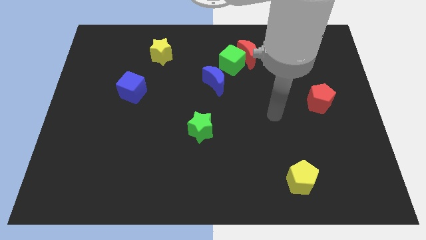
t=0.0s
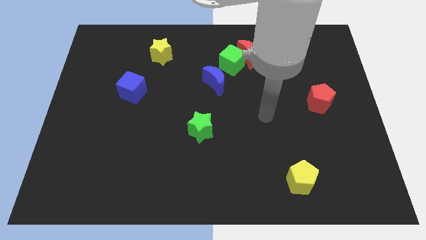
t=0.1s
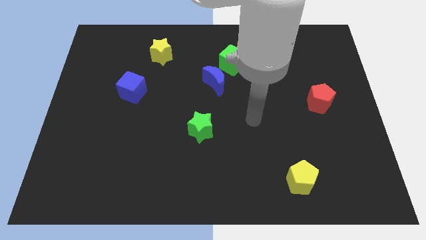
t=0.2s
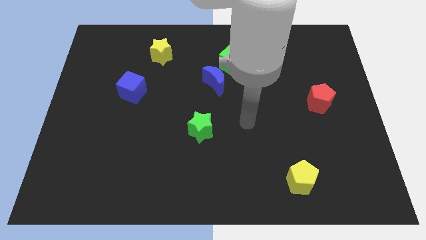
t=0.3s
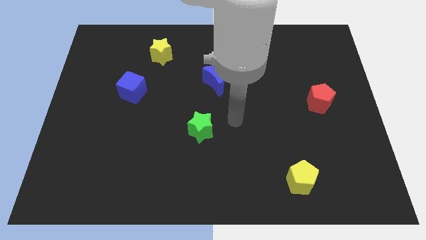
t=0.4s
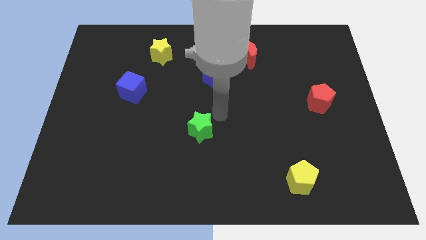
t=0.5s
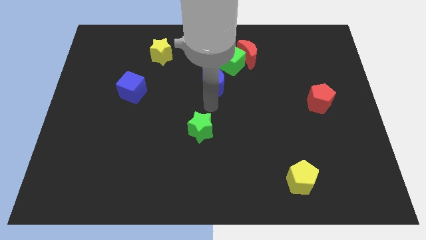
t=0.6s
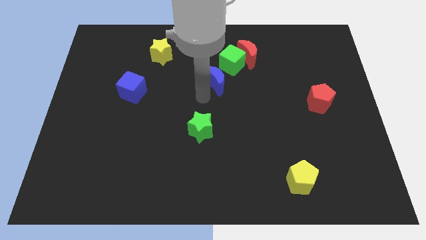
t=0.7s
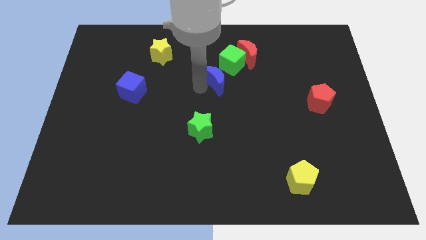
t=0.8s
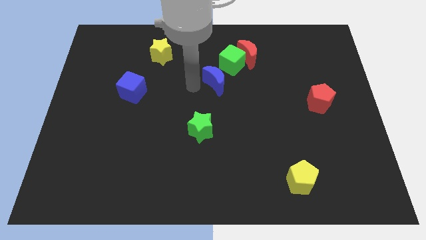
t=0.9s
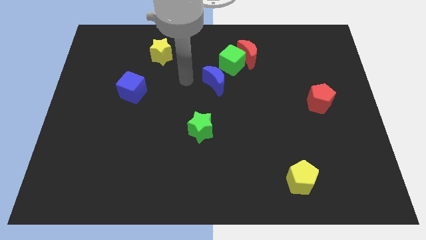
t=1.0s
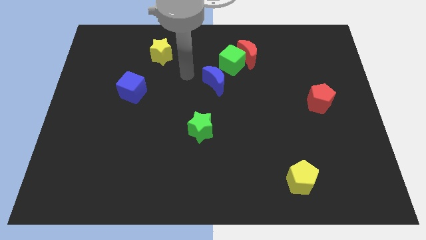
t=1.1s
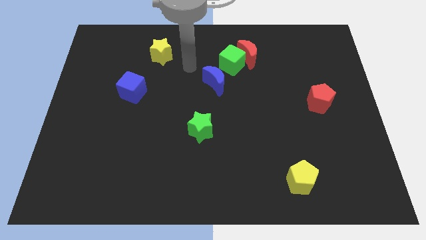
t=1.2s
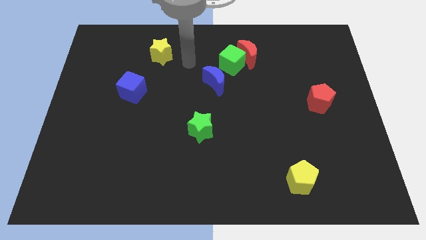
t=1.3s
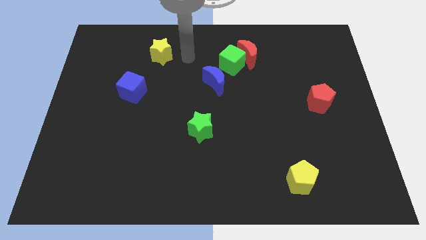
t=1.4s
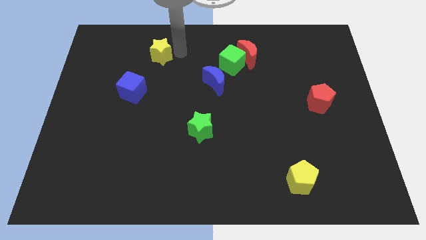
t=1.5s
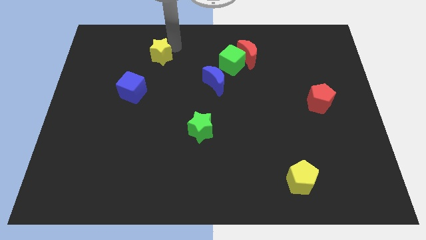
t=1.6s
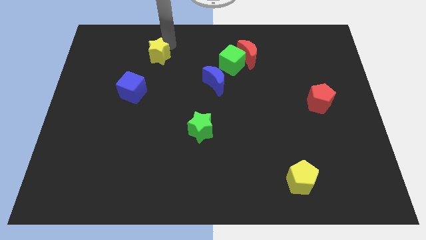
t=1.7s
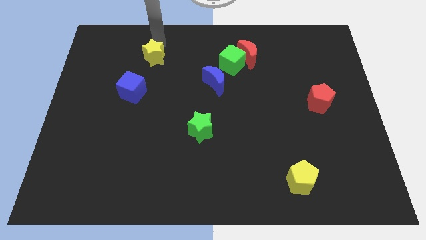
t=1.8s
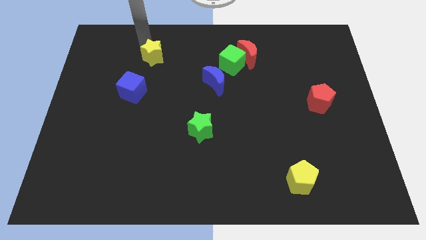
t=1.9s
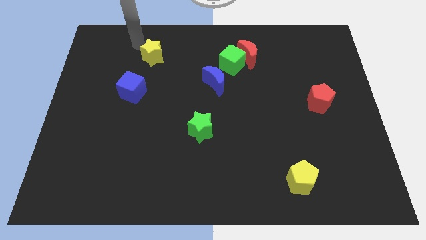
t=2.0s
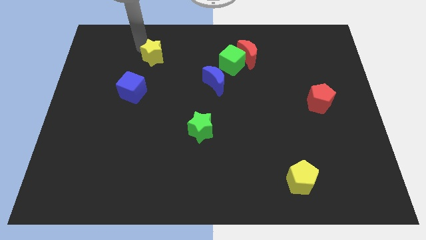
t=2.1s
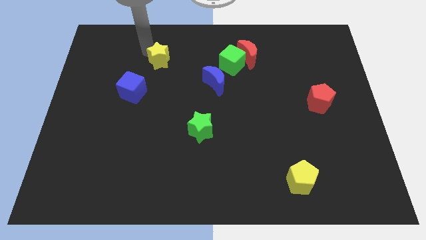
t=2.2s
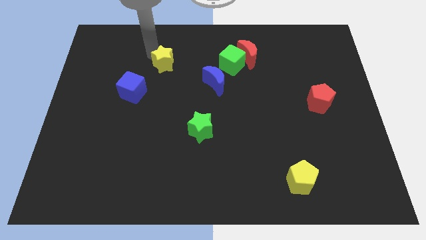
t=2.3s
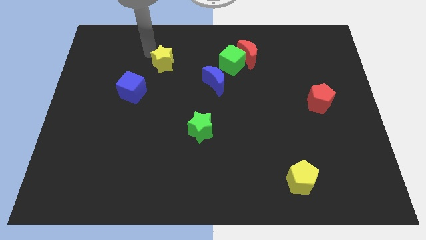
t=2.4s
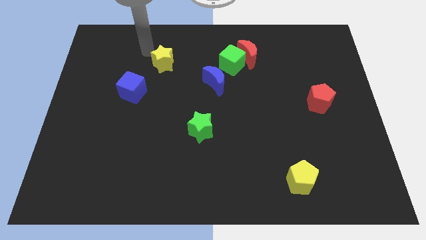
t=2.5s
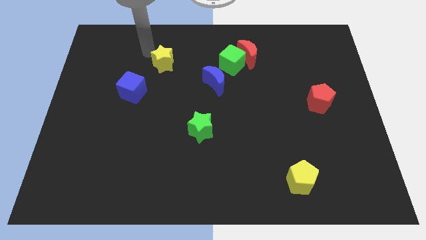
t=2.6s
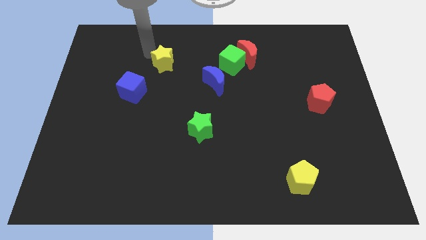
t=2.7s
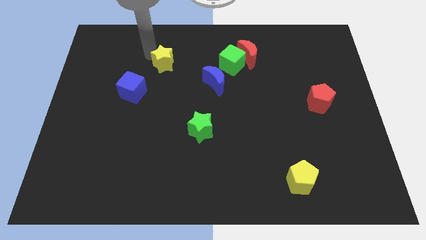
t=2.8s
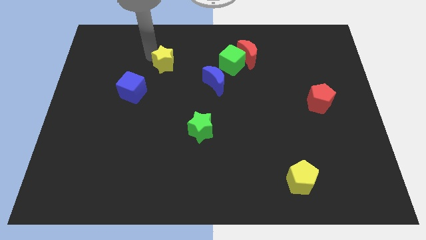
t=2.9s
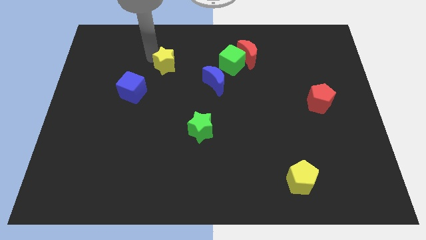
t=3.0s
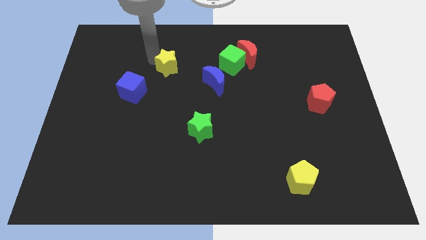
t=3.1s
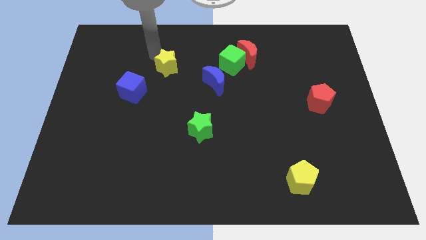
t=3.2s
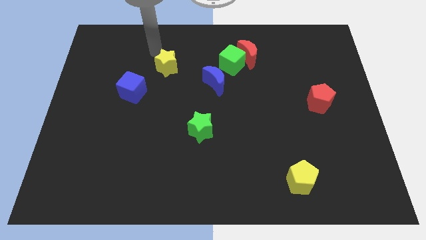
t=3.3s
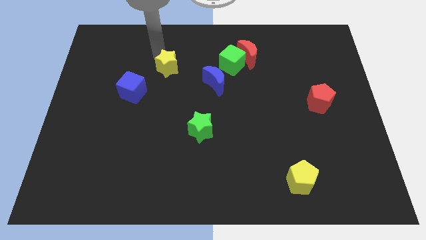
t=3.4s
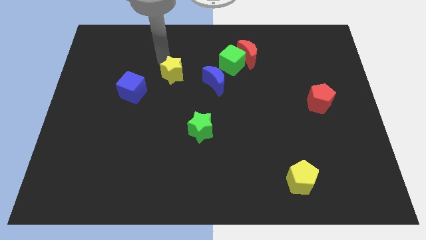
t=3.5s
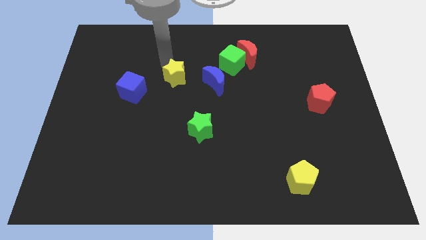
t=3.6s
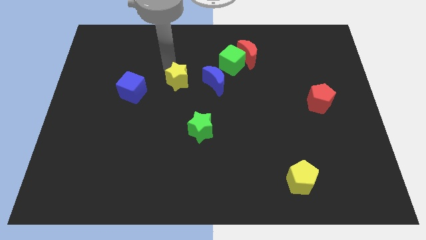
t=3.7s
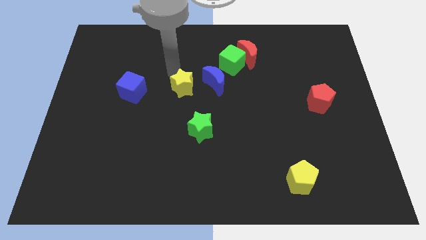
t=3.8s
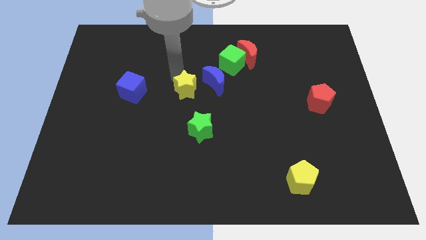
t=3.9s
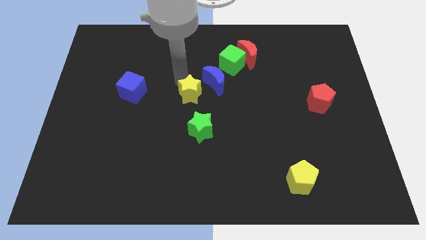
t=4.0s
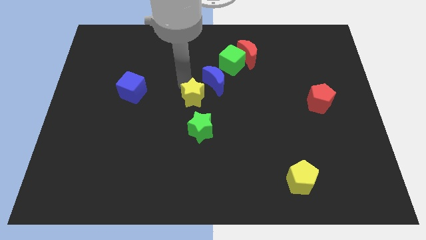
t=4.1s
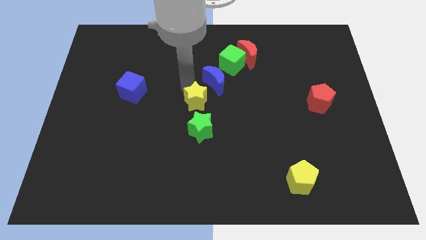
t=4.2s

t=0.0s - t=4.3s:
push the yellow star to the bottom side of the blue moon

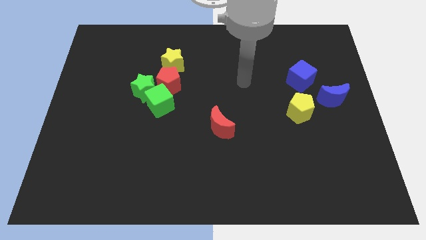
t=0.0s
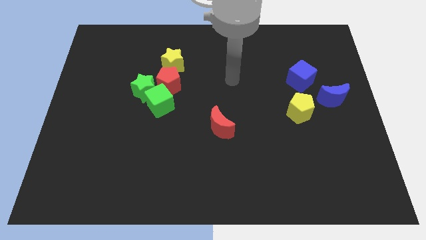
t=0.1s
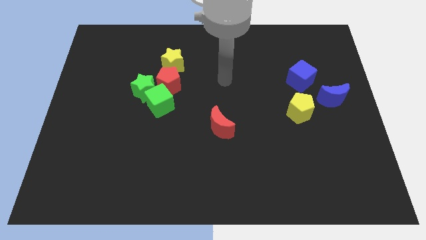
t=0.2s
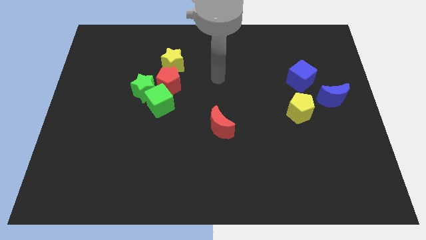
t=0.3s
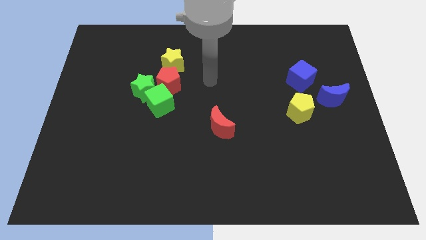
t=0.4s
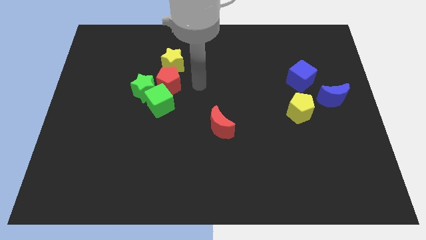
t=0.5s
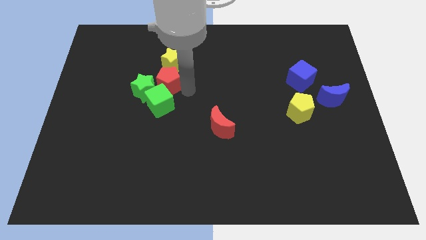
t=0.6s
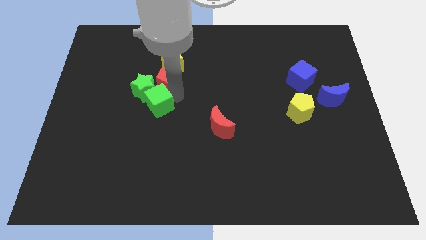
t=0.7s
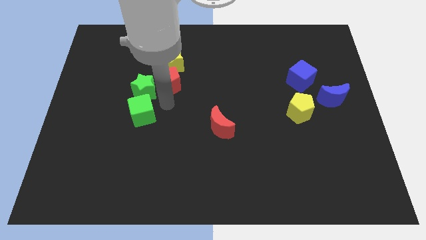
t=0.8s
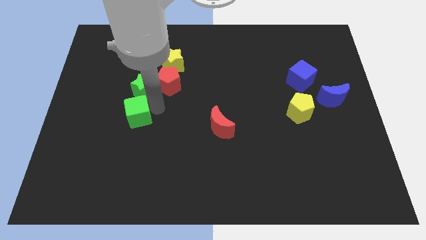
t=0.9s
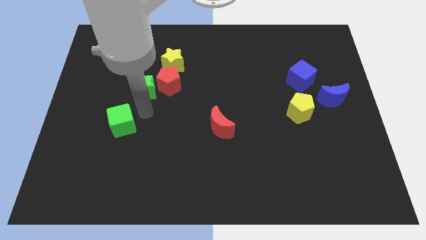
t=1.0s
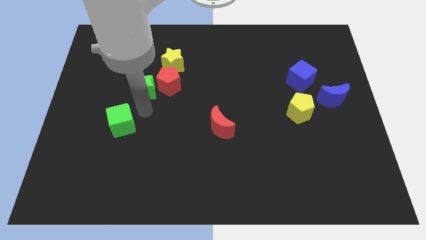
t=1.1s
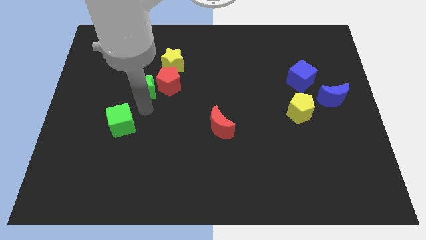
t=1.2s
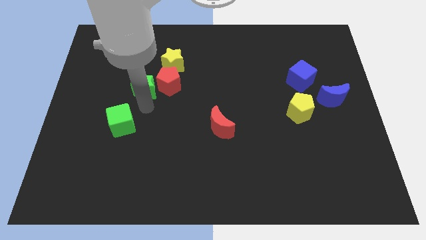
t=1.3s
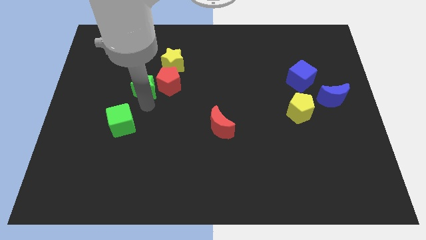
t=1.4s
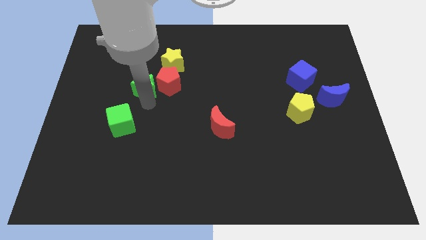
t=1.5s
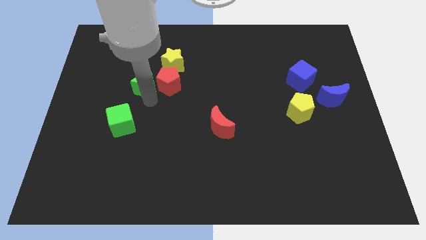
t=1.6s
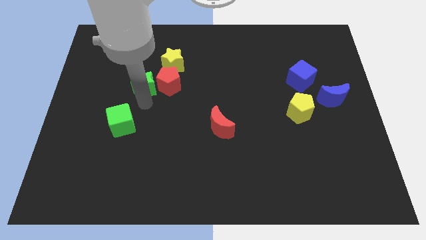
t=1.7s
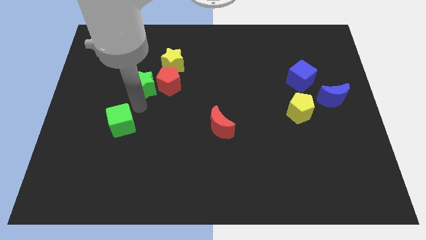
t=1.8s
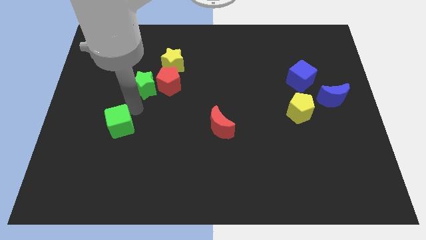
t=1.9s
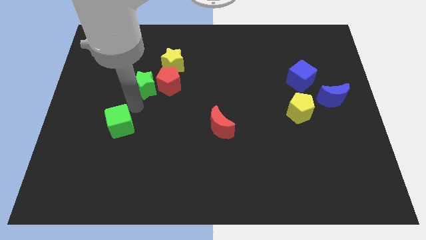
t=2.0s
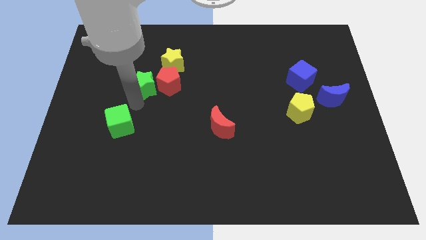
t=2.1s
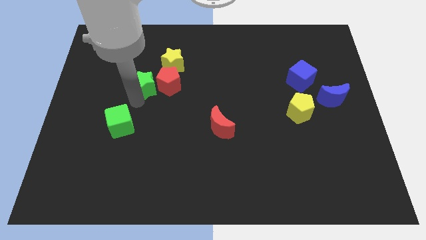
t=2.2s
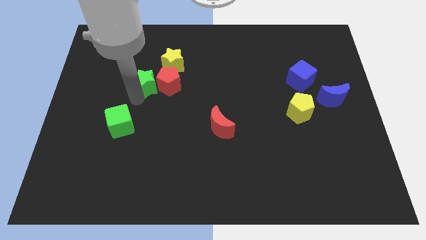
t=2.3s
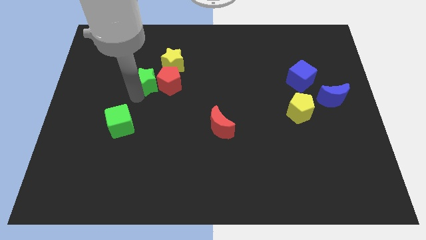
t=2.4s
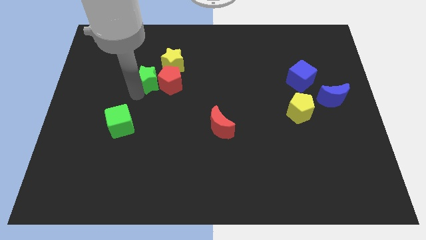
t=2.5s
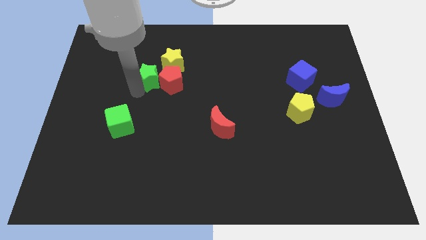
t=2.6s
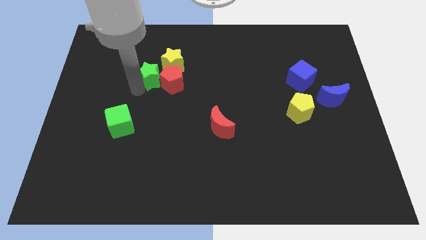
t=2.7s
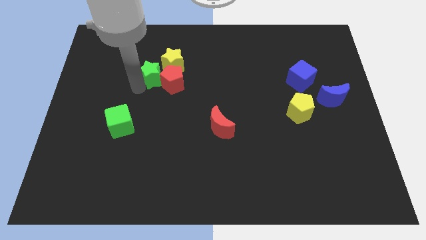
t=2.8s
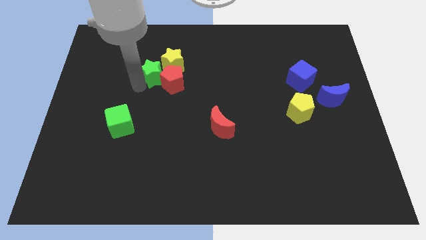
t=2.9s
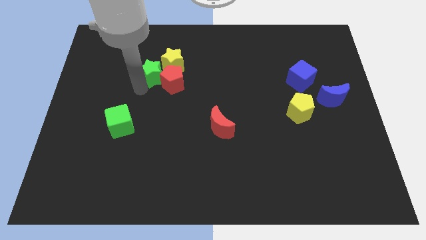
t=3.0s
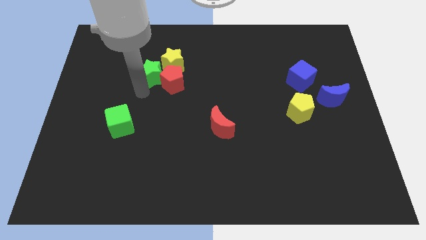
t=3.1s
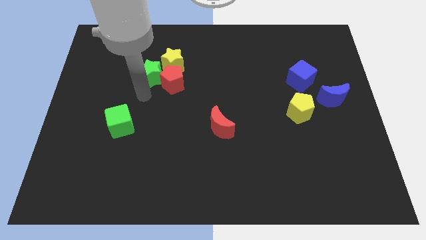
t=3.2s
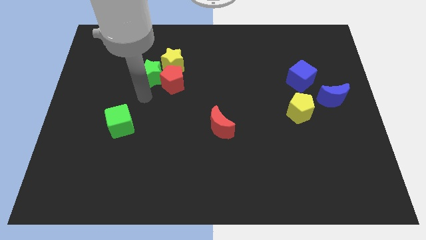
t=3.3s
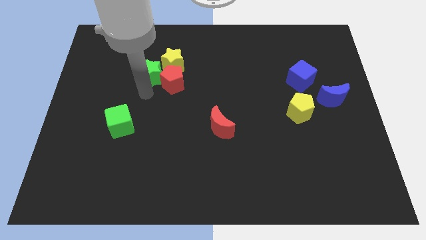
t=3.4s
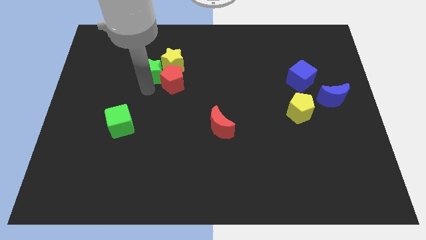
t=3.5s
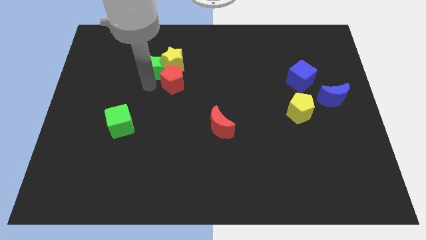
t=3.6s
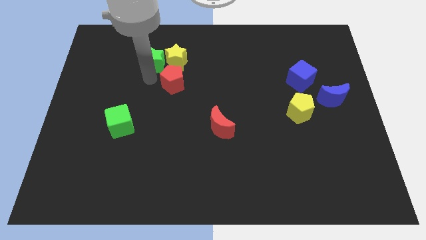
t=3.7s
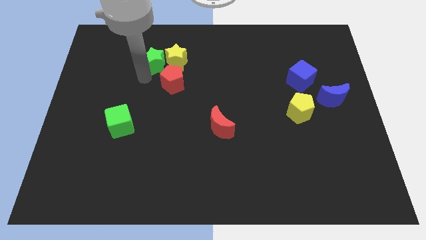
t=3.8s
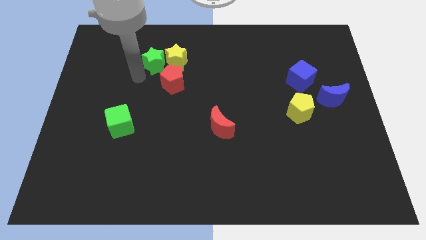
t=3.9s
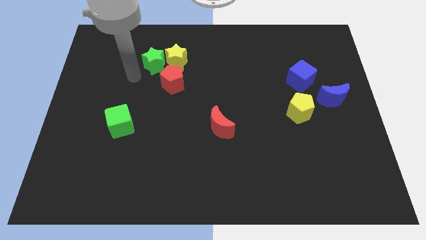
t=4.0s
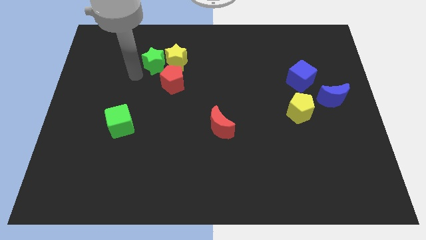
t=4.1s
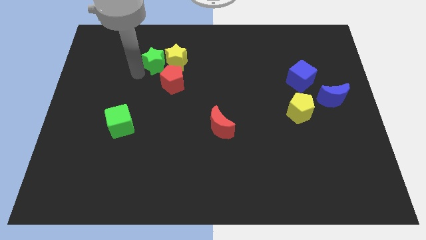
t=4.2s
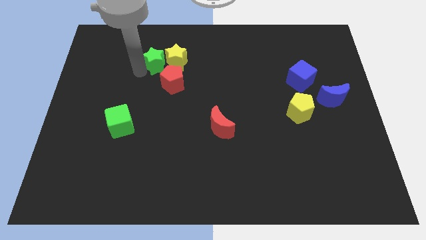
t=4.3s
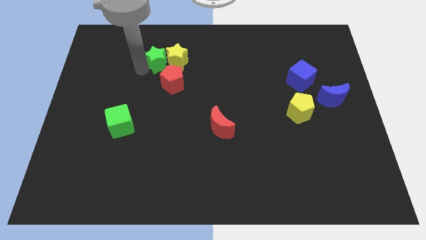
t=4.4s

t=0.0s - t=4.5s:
move the green star above the red pentagon
